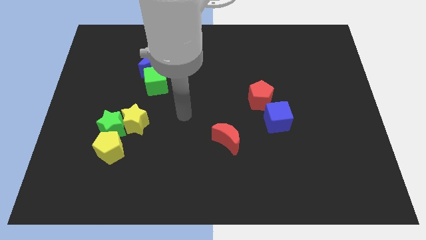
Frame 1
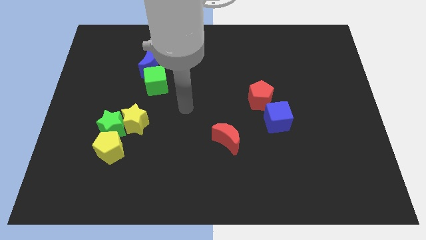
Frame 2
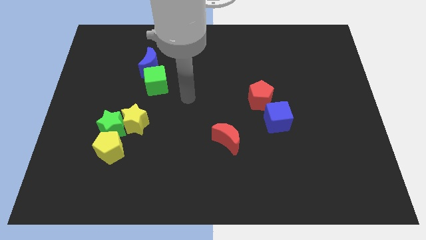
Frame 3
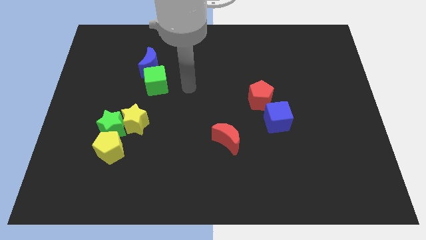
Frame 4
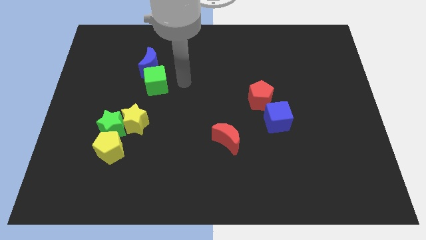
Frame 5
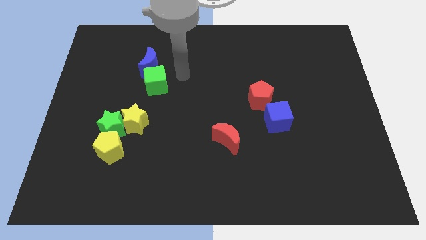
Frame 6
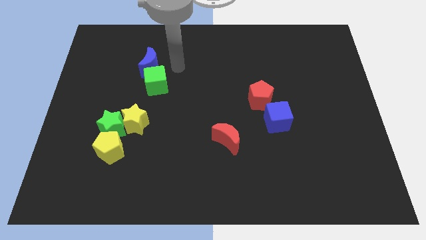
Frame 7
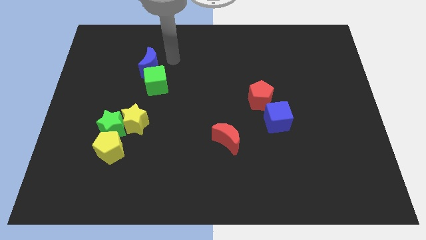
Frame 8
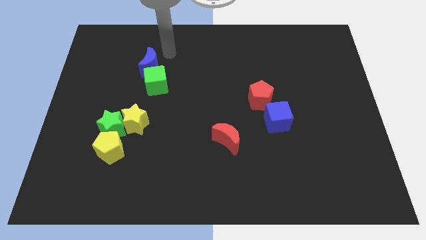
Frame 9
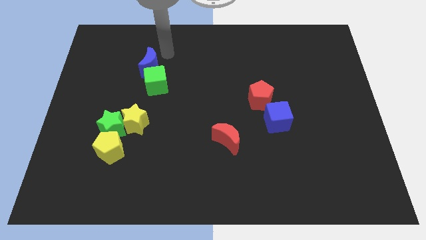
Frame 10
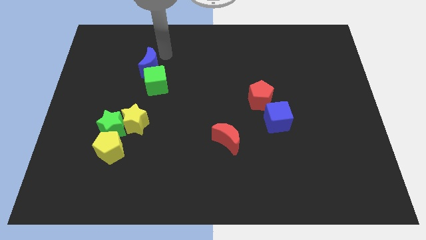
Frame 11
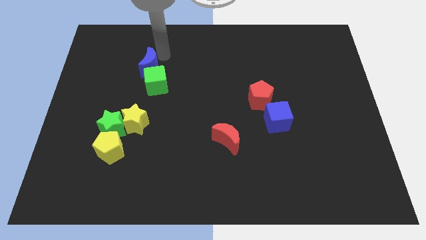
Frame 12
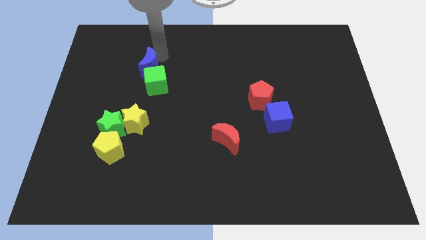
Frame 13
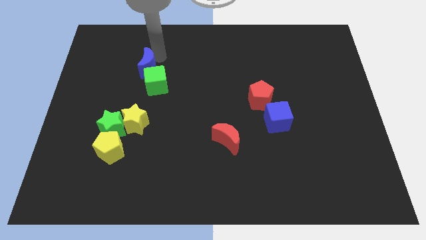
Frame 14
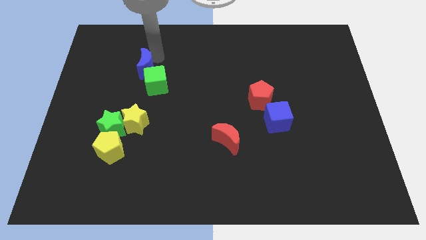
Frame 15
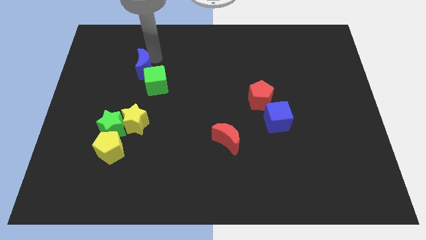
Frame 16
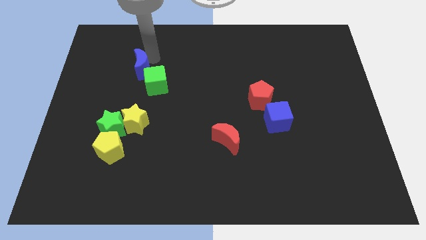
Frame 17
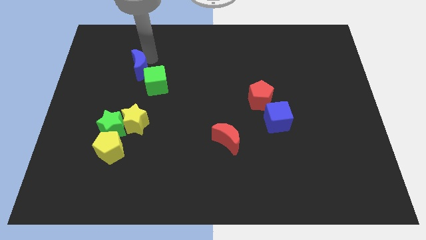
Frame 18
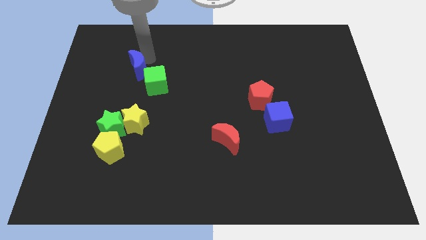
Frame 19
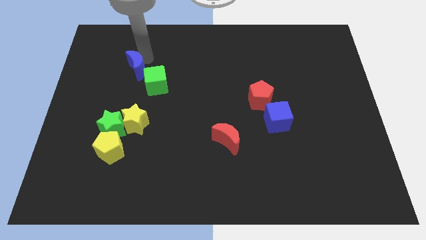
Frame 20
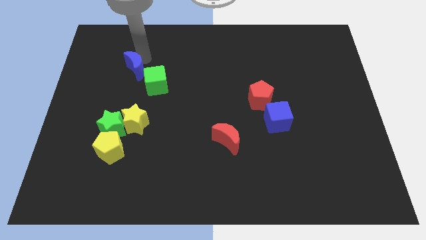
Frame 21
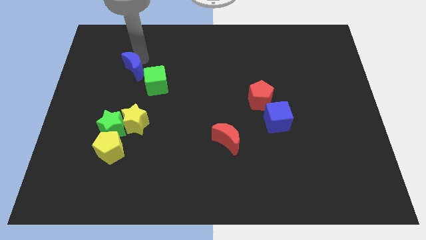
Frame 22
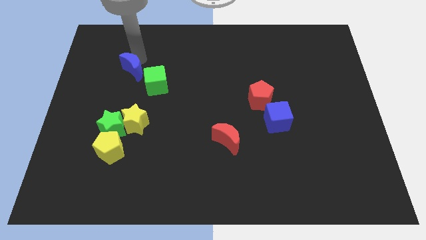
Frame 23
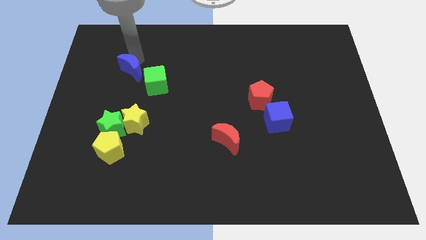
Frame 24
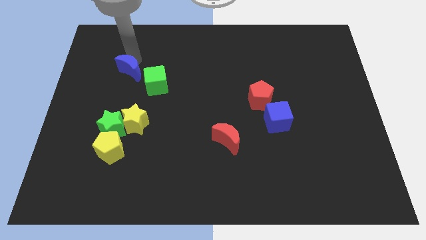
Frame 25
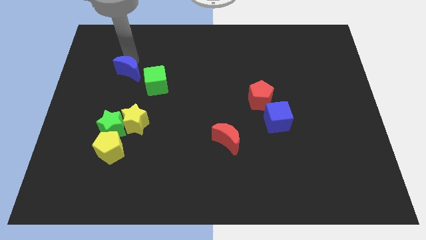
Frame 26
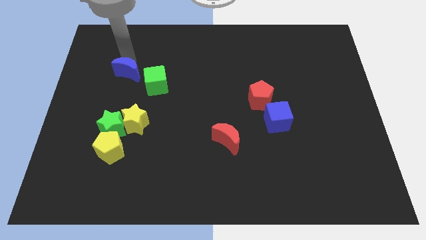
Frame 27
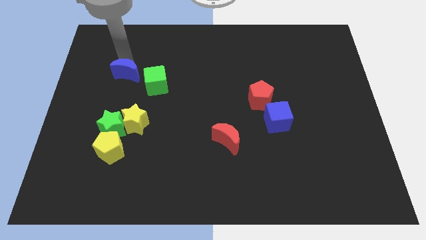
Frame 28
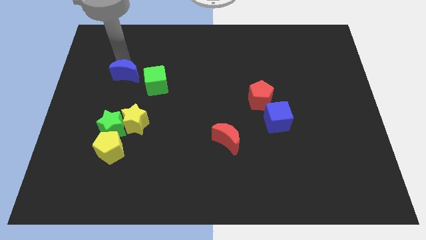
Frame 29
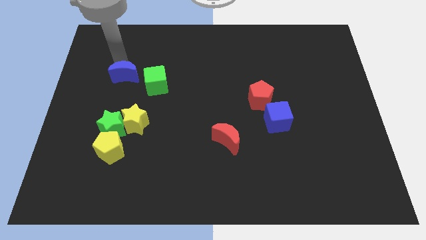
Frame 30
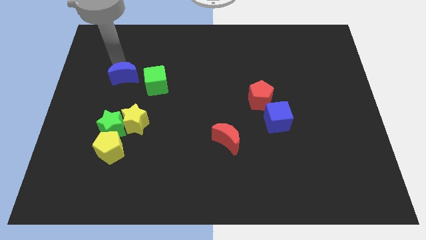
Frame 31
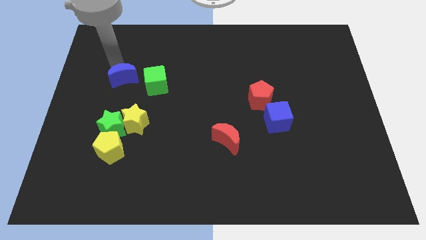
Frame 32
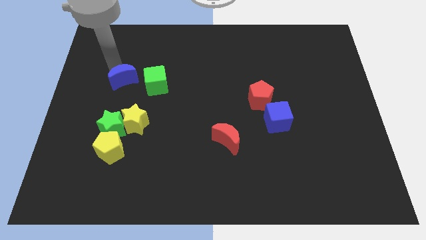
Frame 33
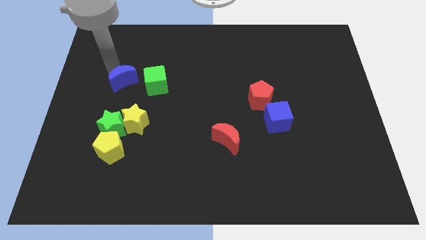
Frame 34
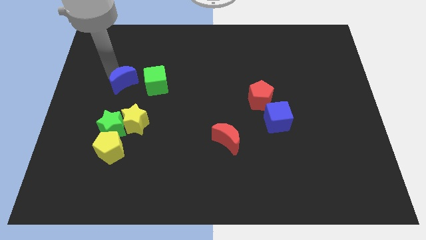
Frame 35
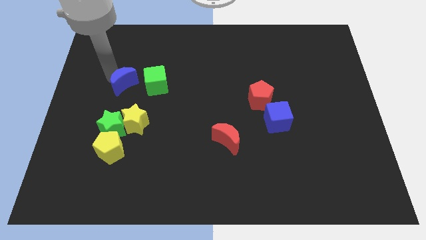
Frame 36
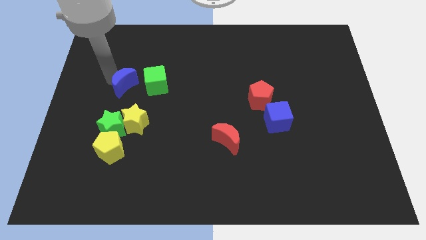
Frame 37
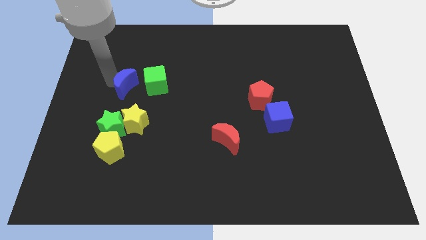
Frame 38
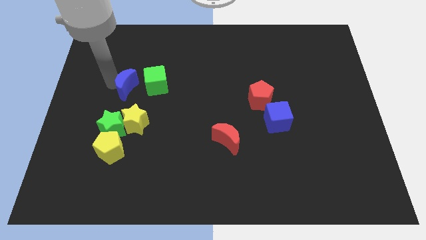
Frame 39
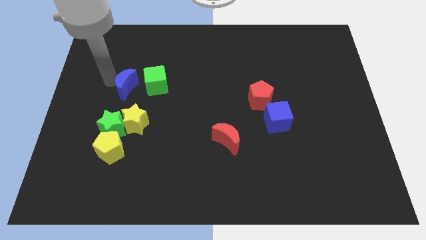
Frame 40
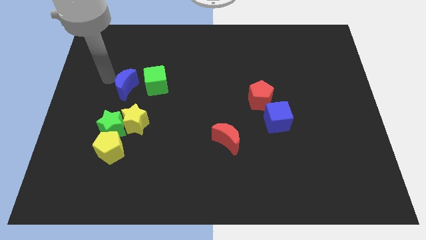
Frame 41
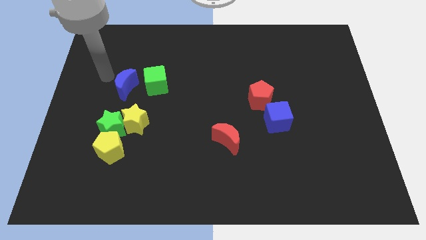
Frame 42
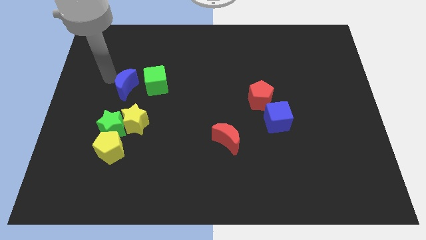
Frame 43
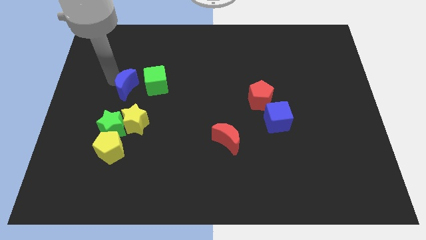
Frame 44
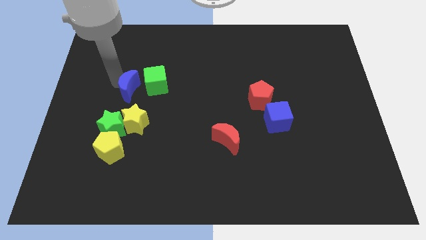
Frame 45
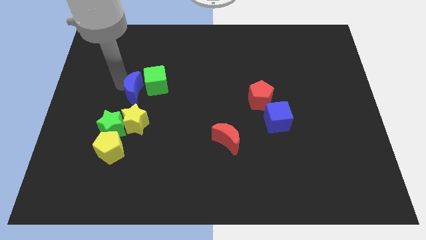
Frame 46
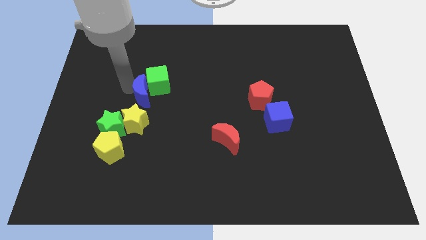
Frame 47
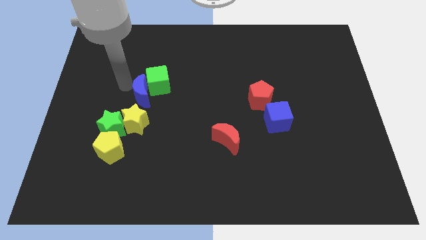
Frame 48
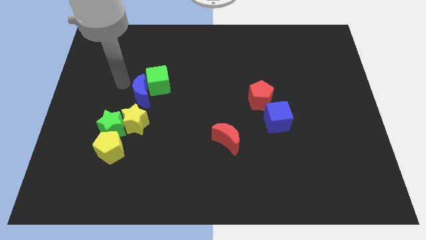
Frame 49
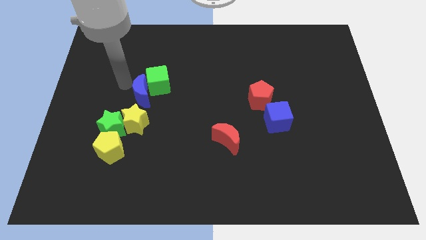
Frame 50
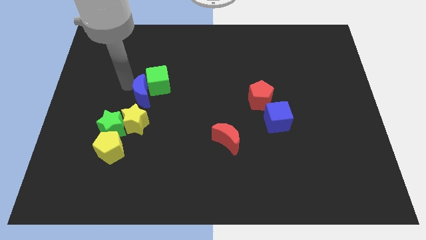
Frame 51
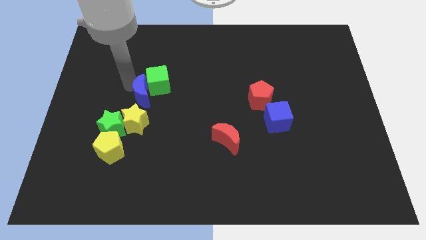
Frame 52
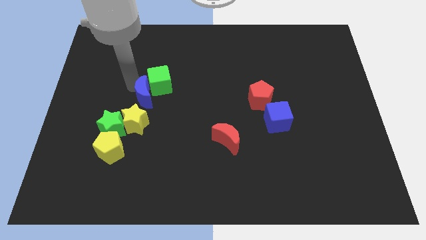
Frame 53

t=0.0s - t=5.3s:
push the blue moon to the top right side of the yellow star

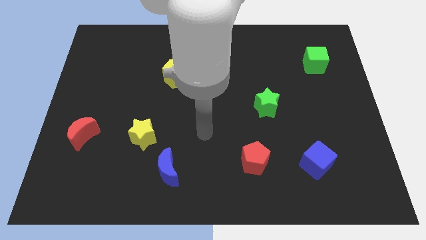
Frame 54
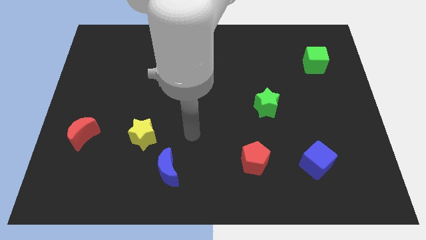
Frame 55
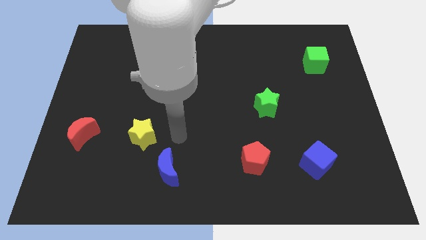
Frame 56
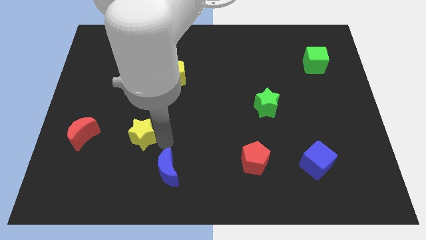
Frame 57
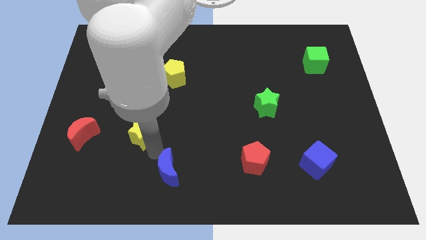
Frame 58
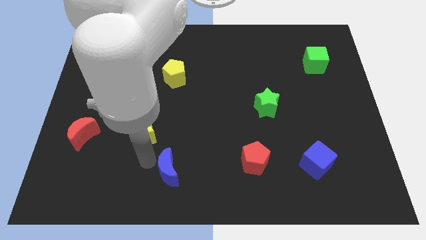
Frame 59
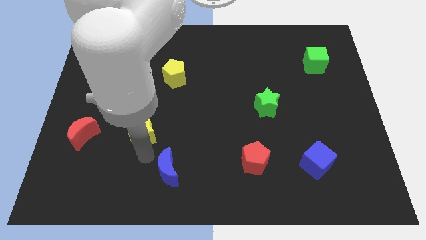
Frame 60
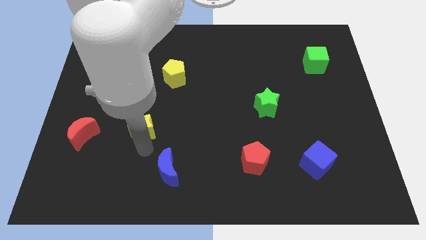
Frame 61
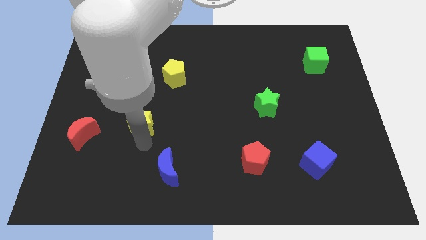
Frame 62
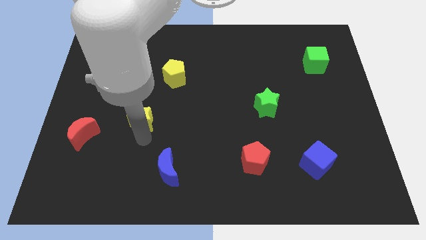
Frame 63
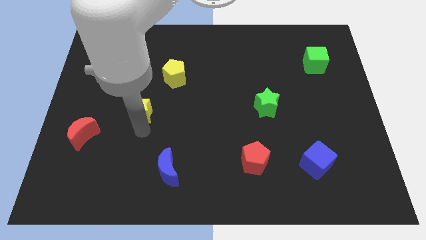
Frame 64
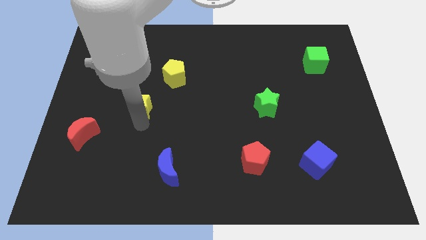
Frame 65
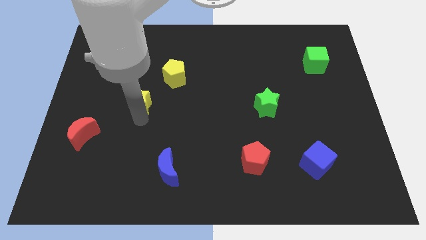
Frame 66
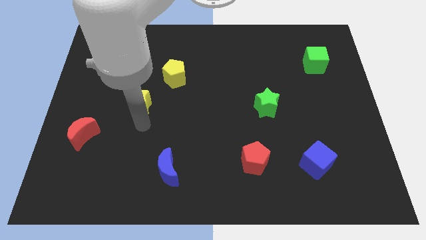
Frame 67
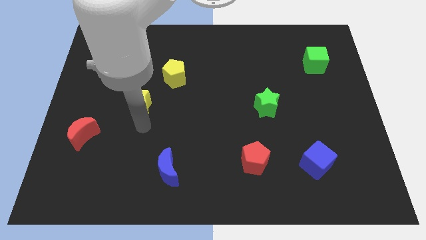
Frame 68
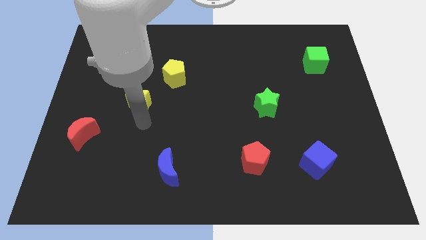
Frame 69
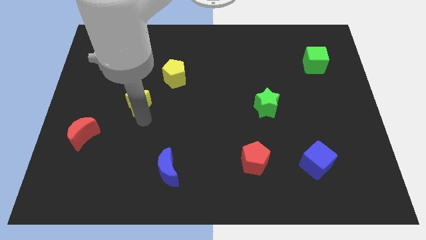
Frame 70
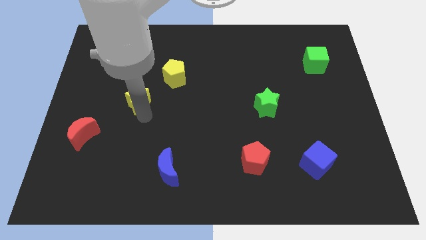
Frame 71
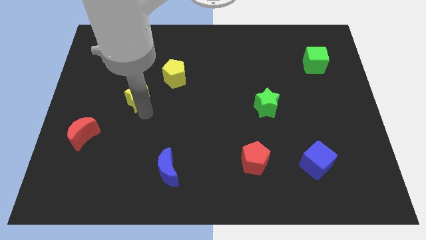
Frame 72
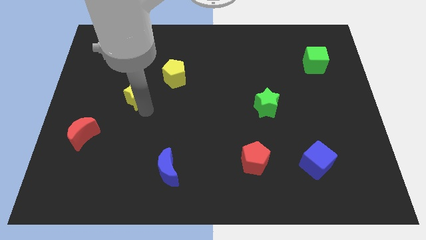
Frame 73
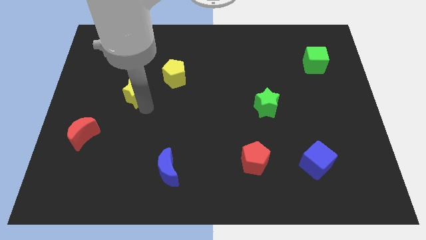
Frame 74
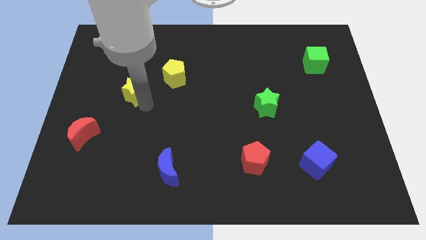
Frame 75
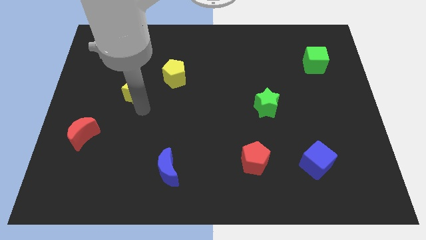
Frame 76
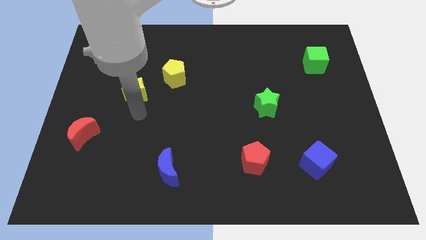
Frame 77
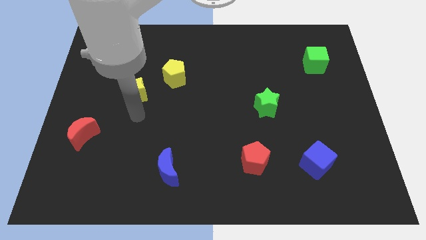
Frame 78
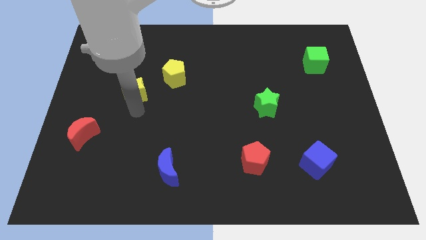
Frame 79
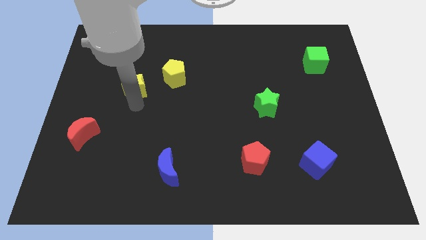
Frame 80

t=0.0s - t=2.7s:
slide the yellow star to the left of the yellow pentagon
